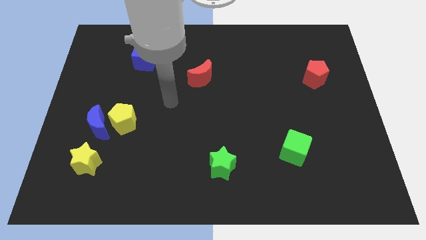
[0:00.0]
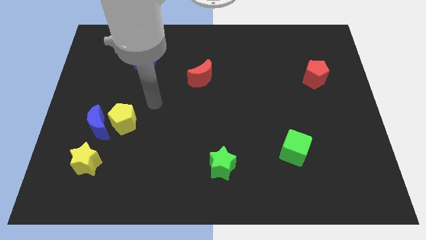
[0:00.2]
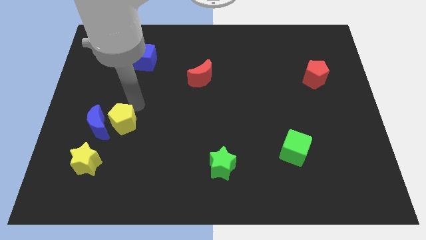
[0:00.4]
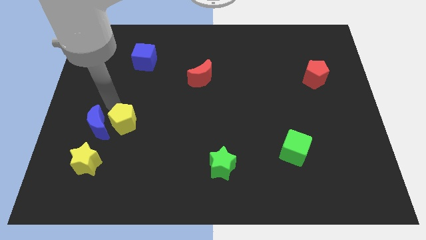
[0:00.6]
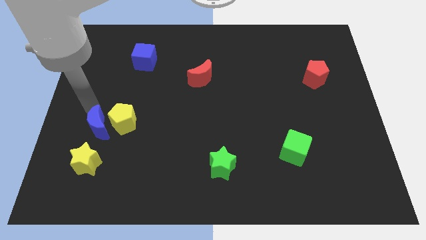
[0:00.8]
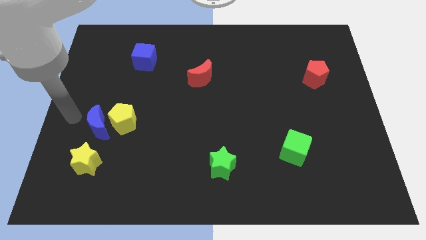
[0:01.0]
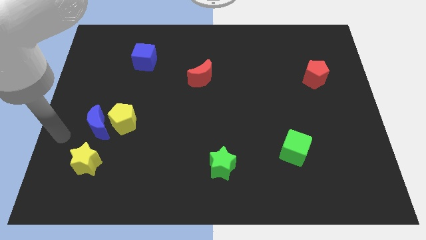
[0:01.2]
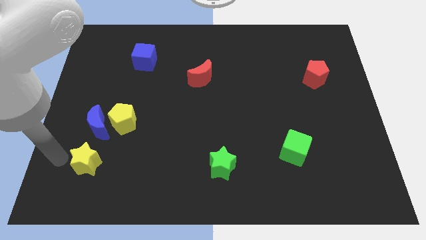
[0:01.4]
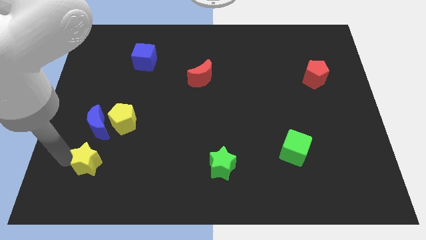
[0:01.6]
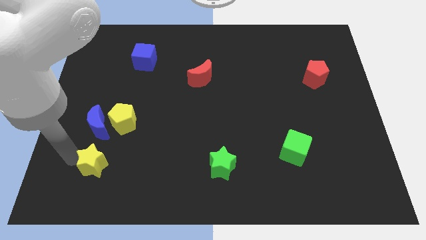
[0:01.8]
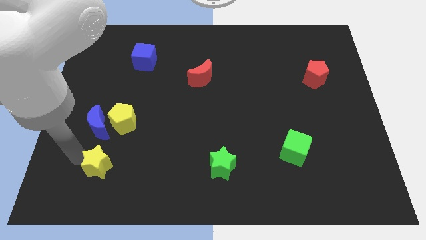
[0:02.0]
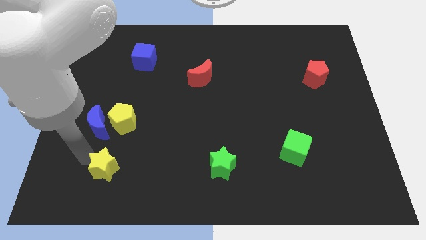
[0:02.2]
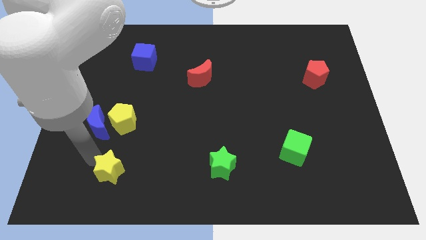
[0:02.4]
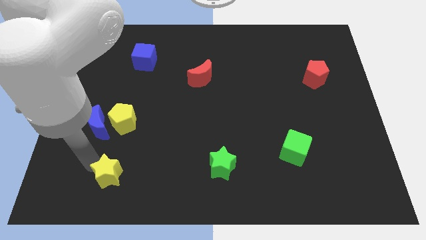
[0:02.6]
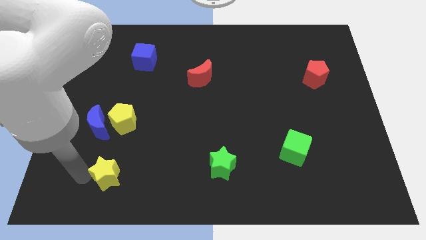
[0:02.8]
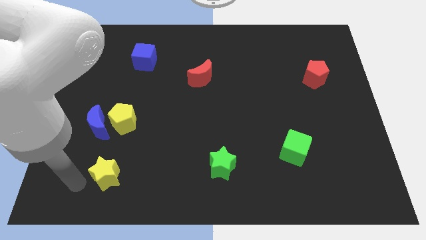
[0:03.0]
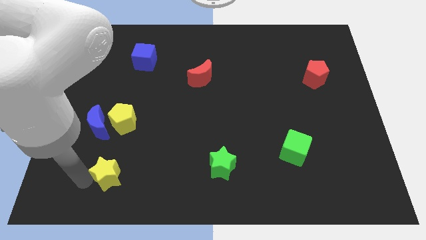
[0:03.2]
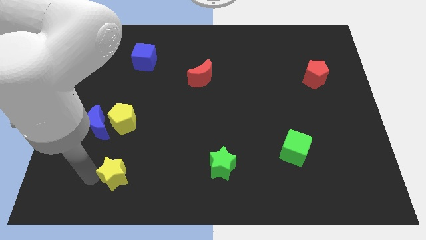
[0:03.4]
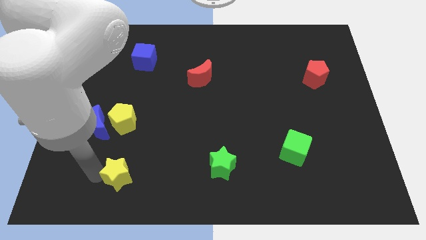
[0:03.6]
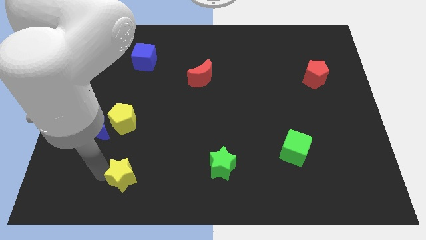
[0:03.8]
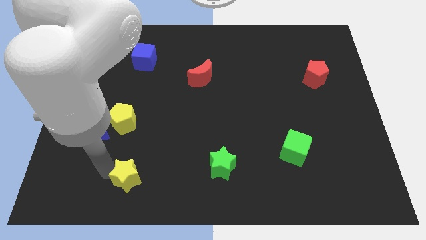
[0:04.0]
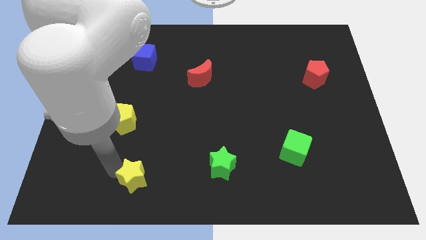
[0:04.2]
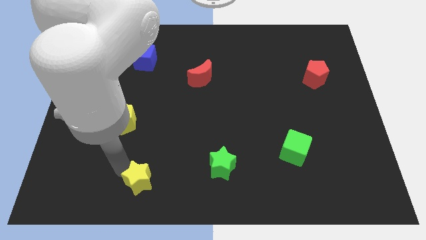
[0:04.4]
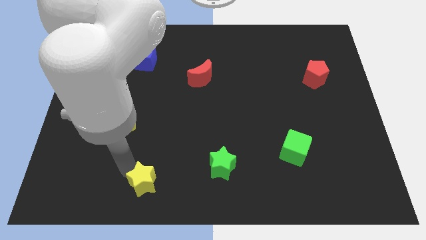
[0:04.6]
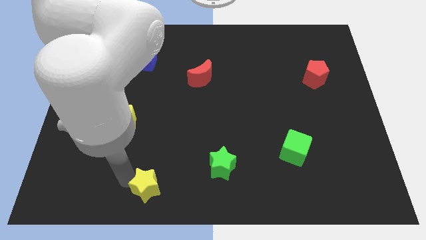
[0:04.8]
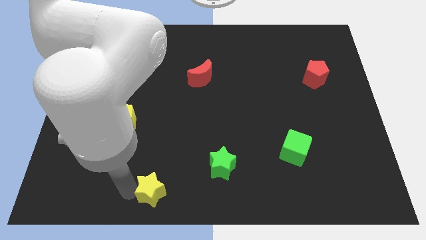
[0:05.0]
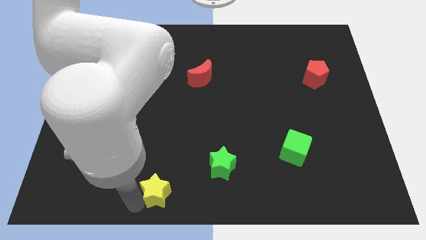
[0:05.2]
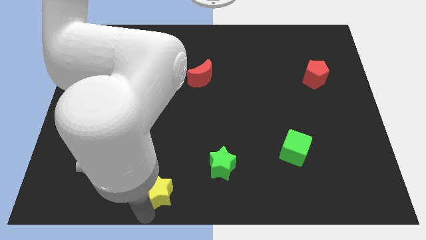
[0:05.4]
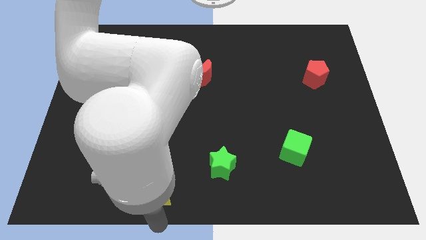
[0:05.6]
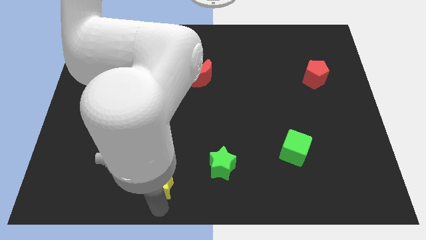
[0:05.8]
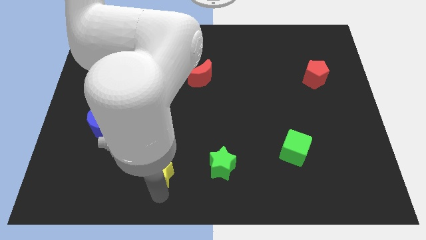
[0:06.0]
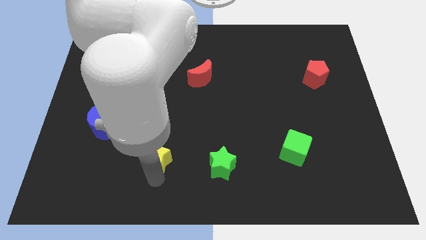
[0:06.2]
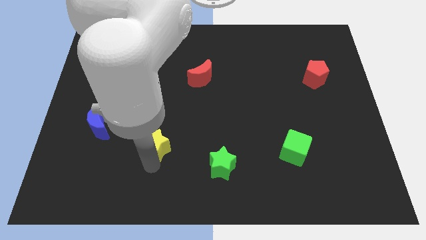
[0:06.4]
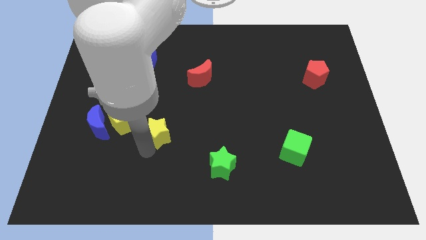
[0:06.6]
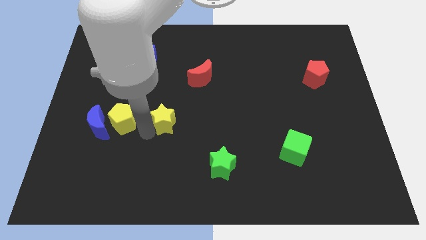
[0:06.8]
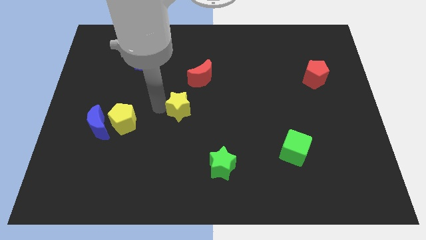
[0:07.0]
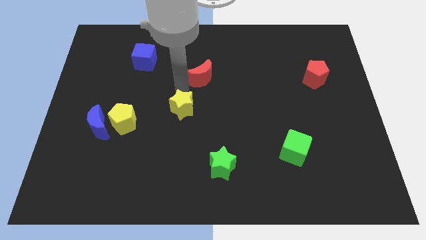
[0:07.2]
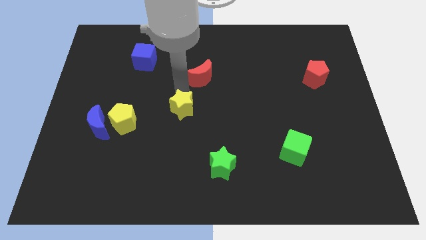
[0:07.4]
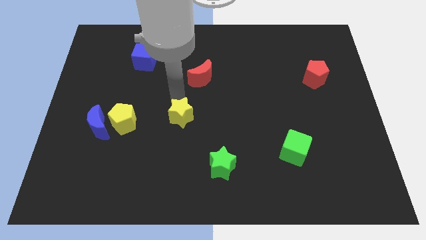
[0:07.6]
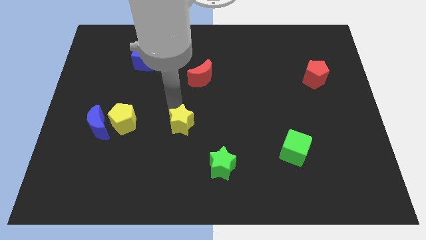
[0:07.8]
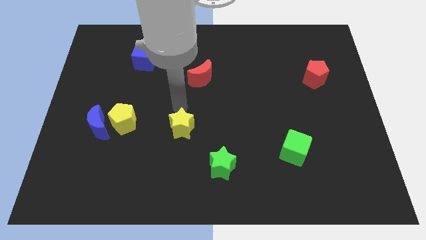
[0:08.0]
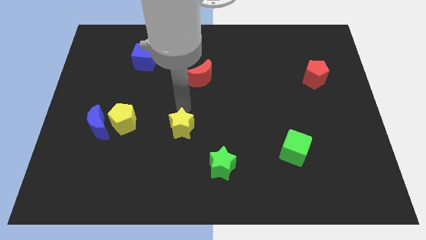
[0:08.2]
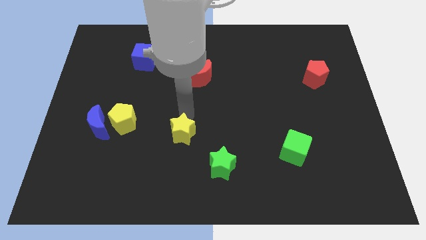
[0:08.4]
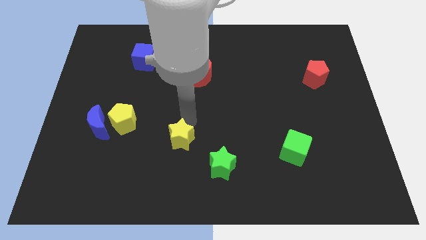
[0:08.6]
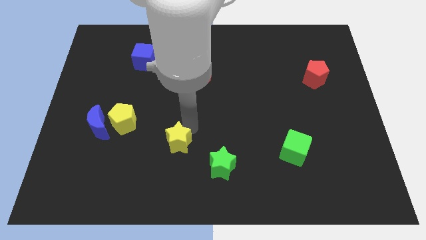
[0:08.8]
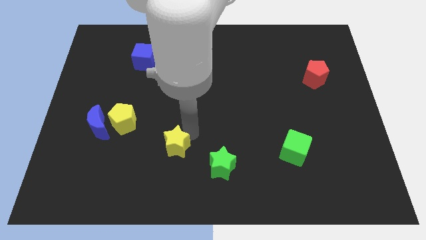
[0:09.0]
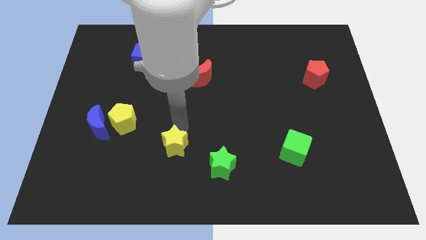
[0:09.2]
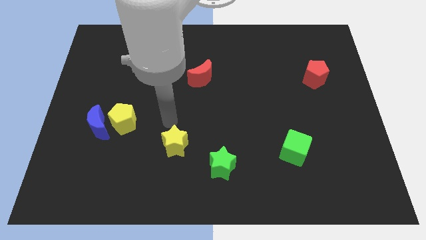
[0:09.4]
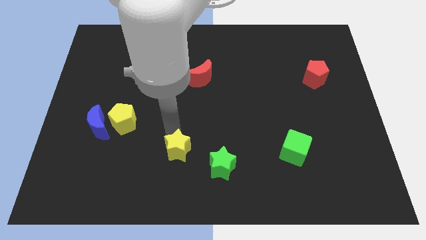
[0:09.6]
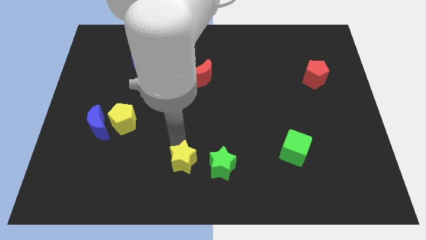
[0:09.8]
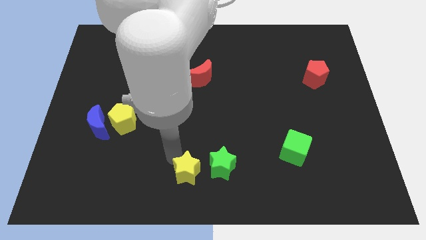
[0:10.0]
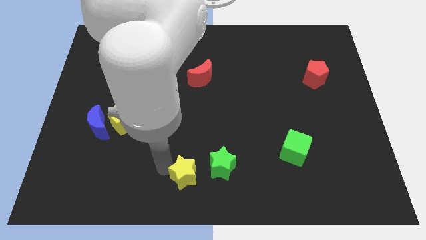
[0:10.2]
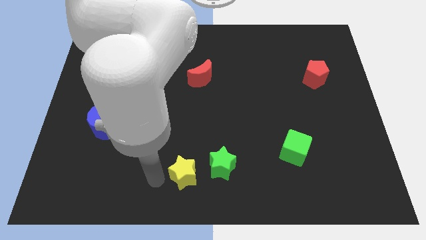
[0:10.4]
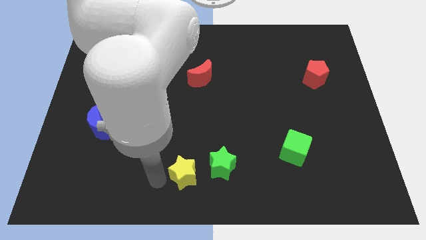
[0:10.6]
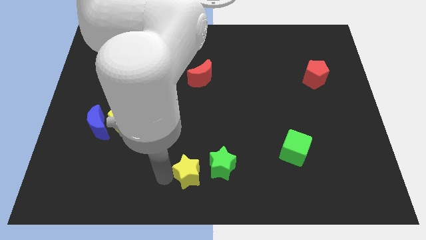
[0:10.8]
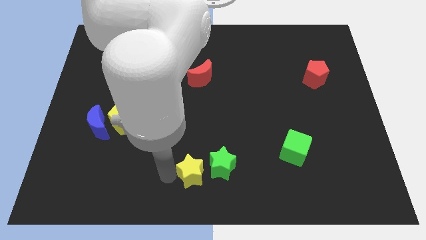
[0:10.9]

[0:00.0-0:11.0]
push the yellow star next to the green star

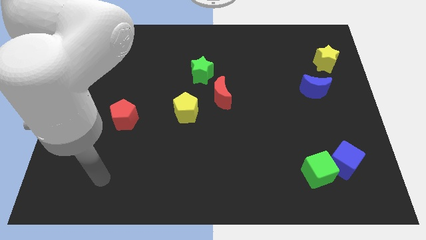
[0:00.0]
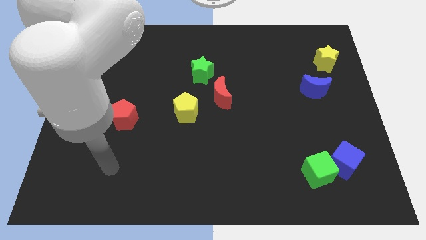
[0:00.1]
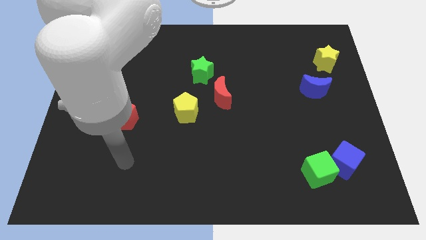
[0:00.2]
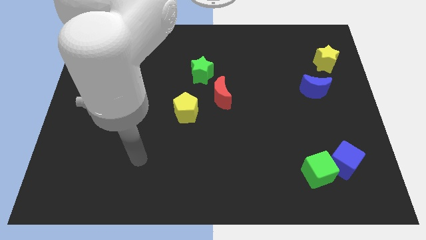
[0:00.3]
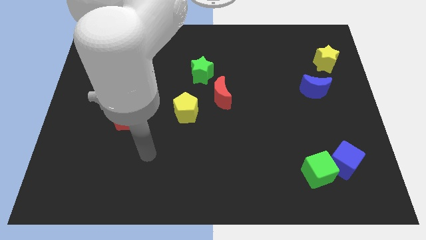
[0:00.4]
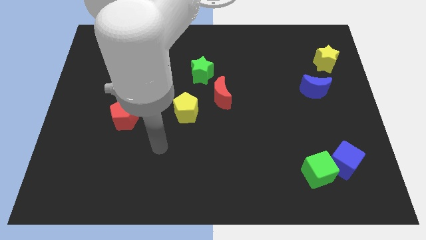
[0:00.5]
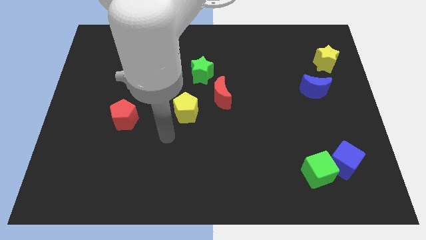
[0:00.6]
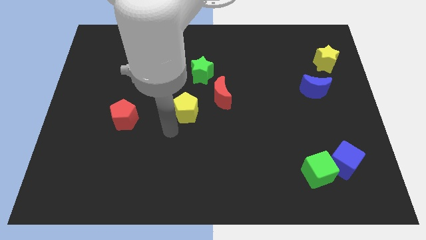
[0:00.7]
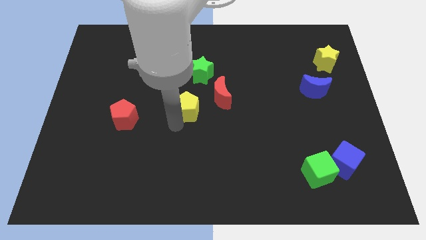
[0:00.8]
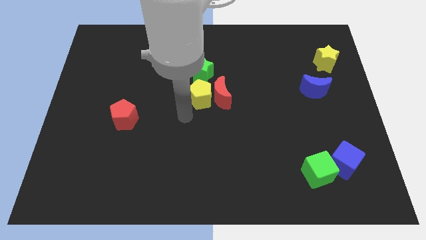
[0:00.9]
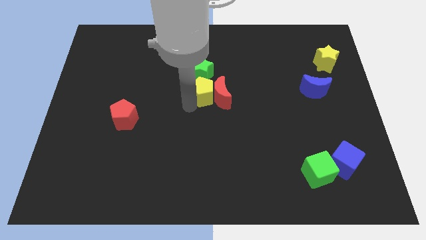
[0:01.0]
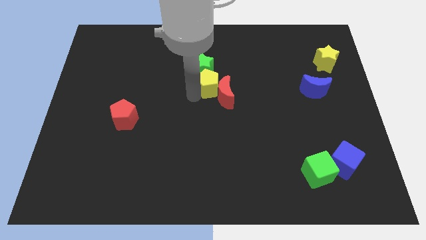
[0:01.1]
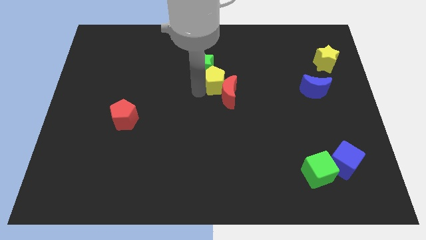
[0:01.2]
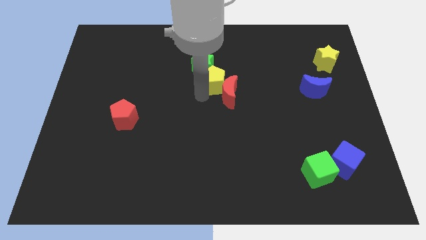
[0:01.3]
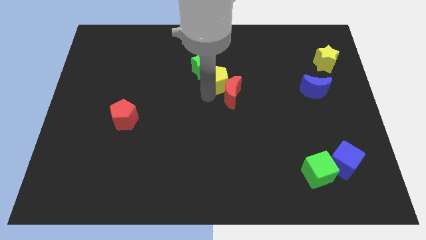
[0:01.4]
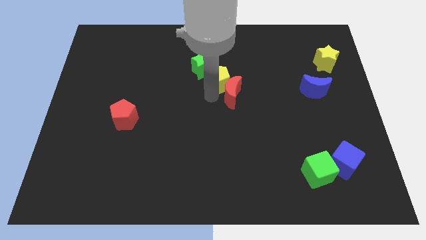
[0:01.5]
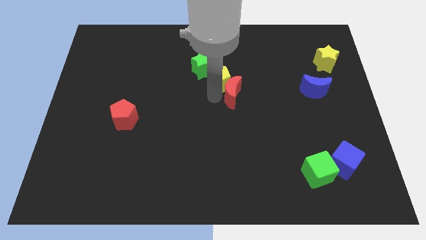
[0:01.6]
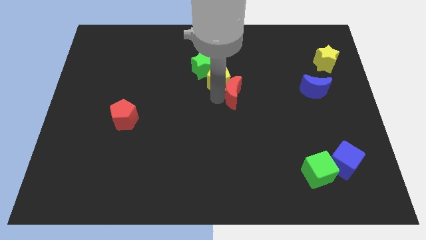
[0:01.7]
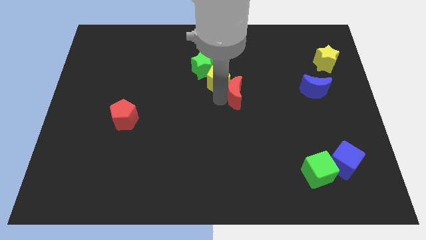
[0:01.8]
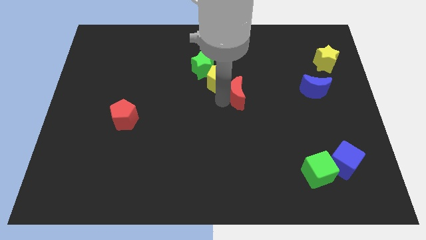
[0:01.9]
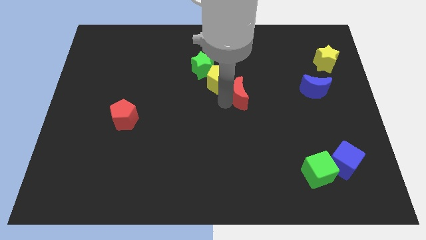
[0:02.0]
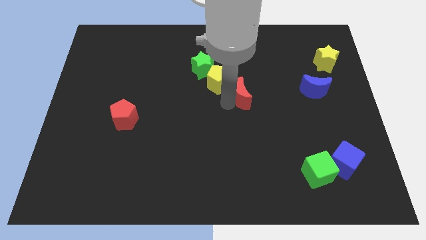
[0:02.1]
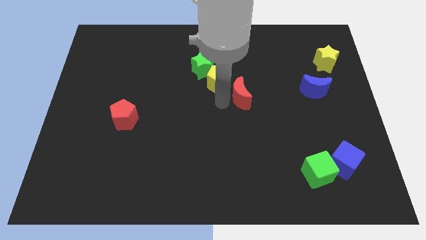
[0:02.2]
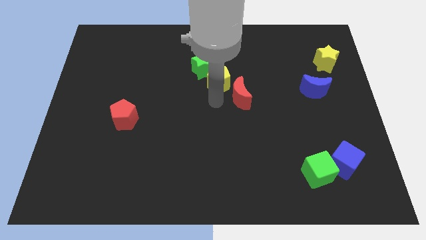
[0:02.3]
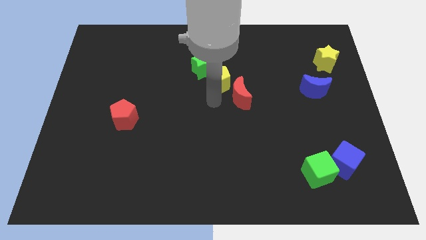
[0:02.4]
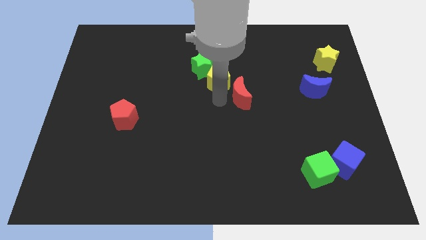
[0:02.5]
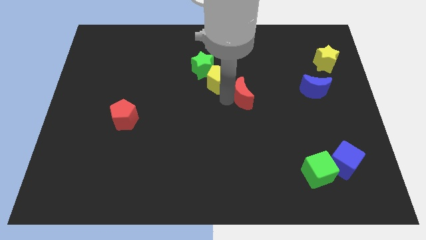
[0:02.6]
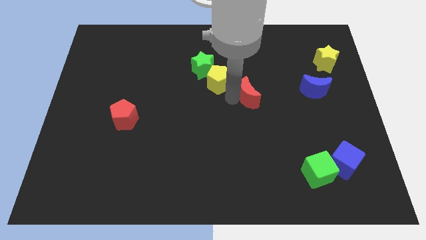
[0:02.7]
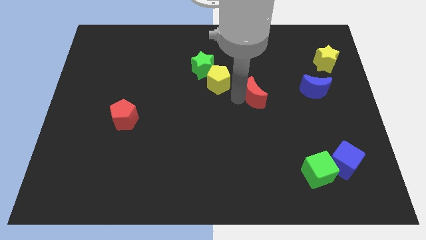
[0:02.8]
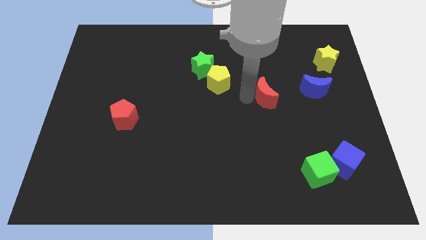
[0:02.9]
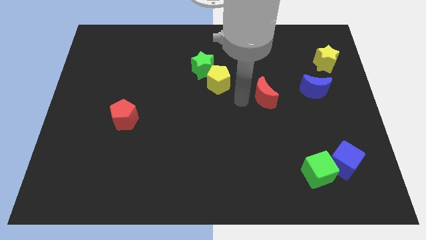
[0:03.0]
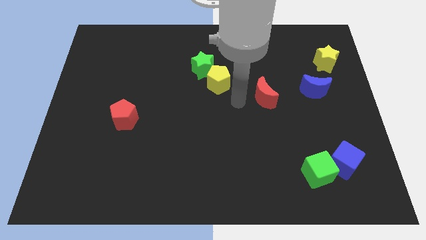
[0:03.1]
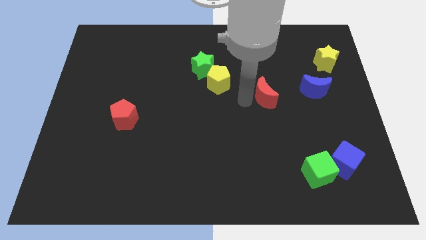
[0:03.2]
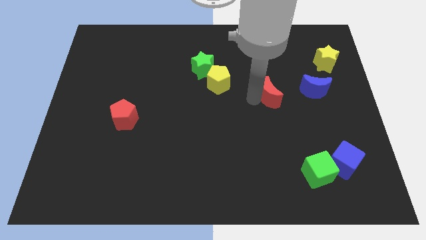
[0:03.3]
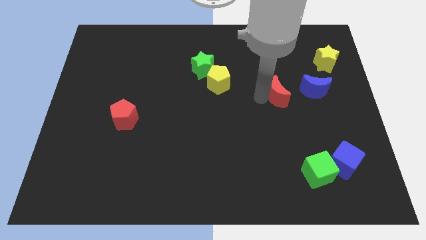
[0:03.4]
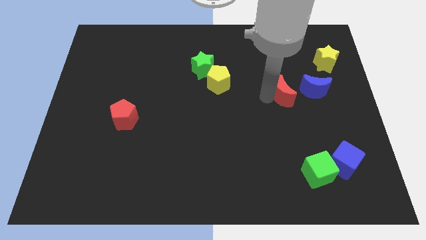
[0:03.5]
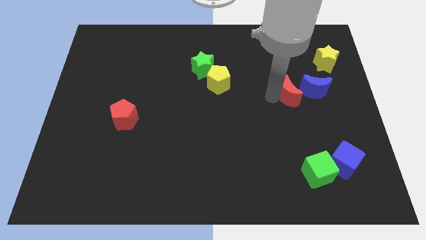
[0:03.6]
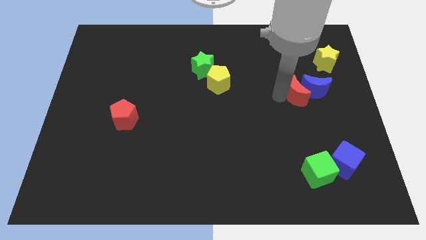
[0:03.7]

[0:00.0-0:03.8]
slide the red moon to the blue moon
